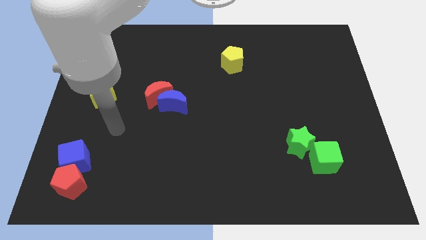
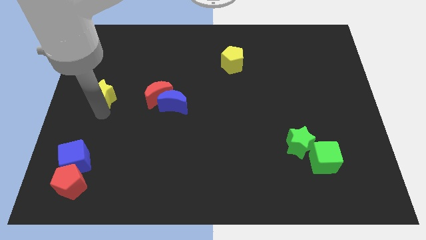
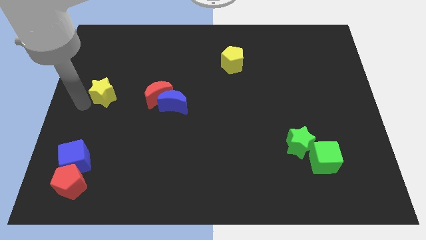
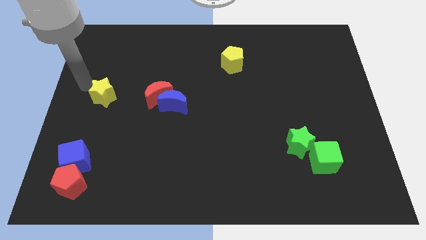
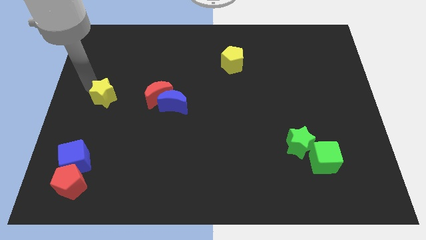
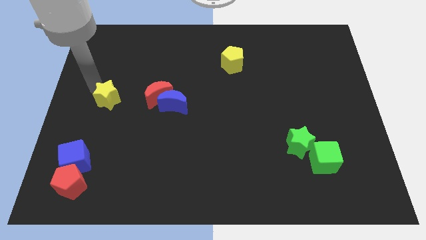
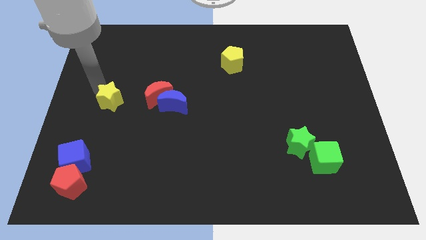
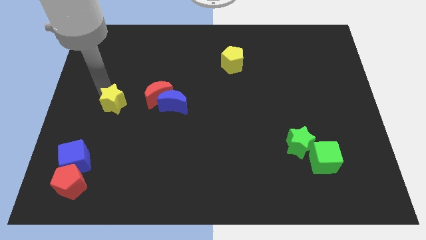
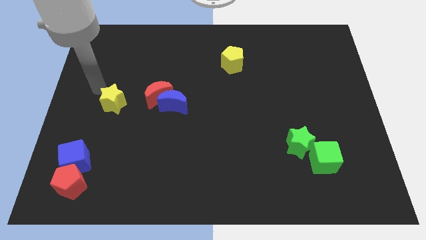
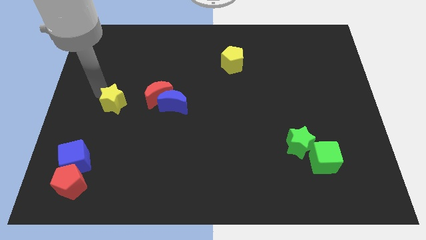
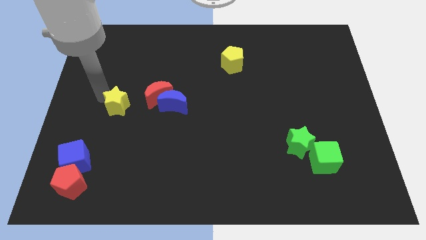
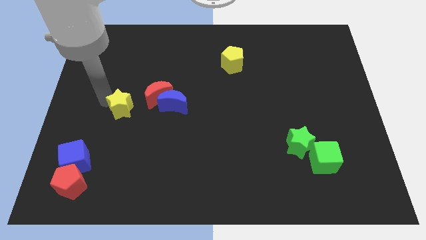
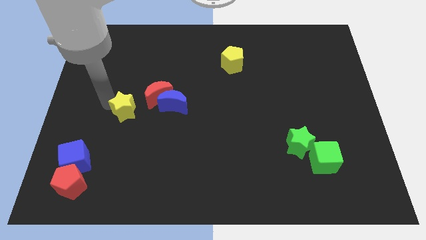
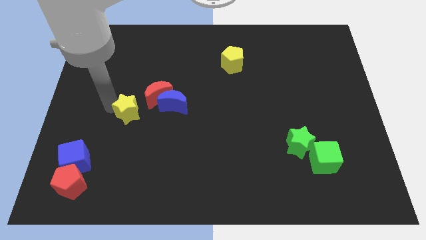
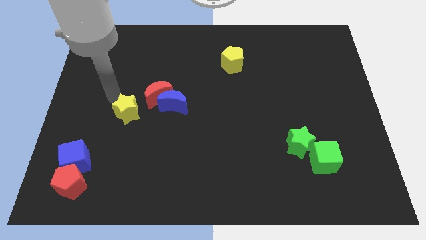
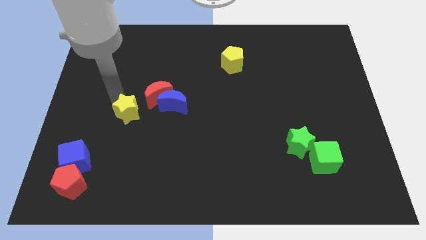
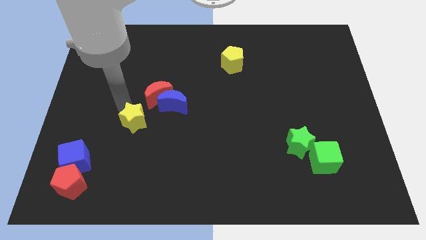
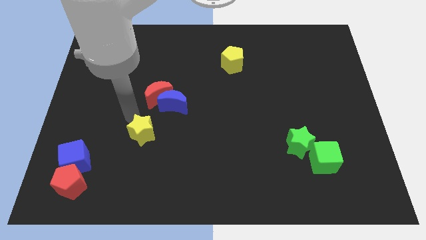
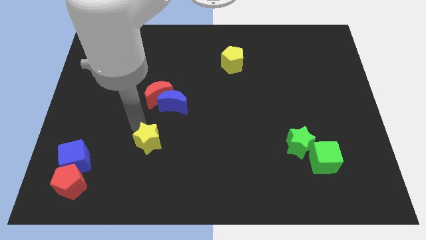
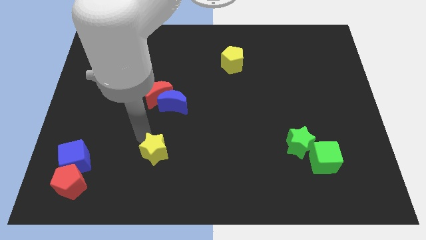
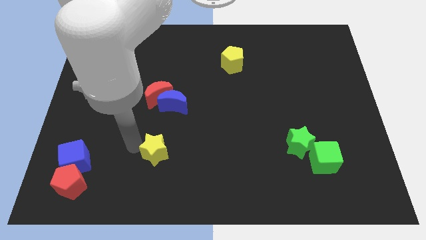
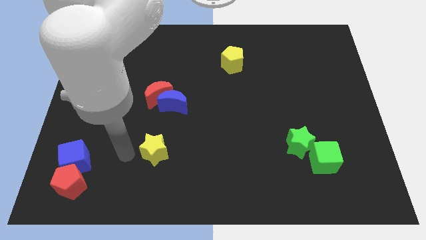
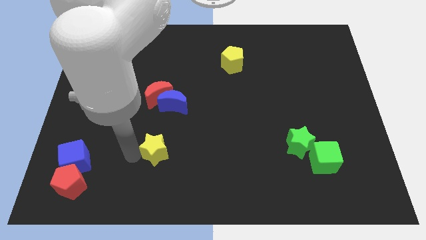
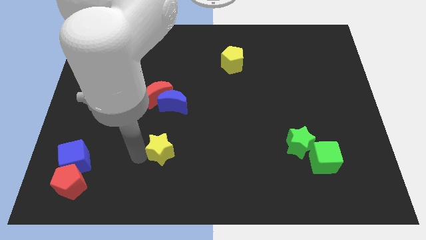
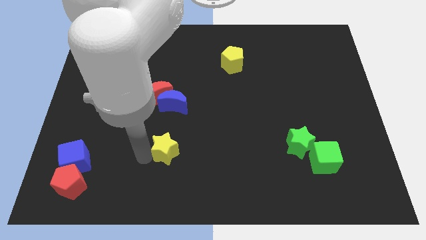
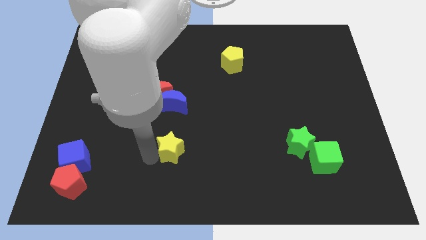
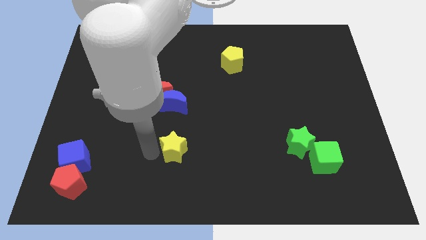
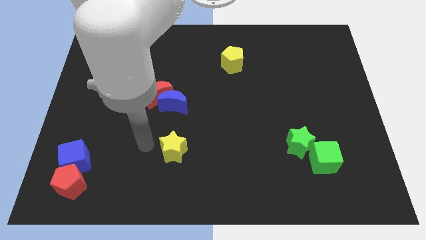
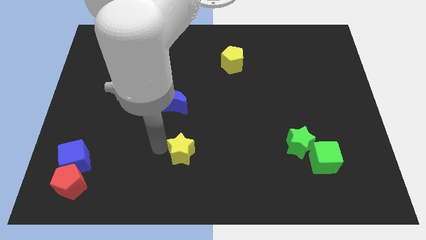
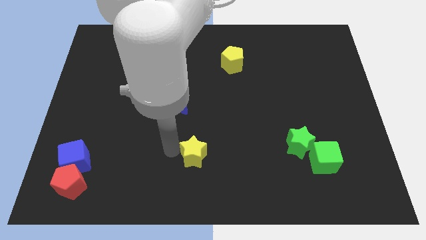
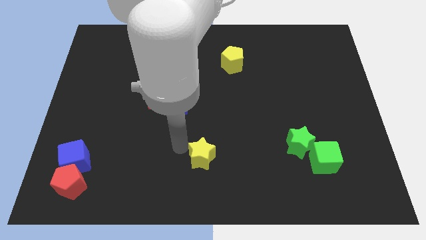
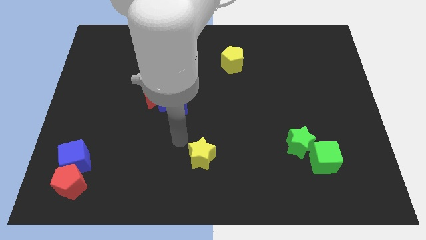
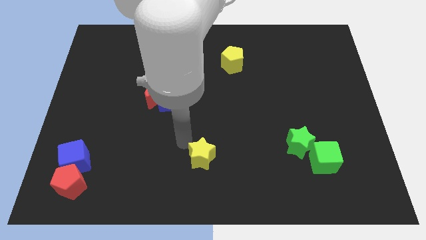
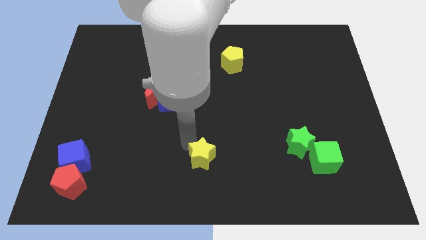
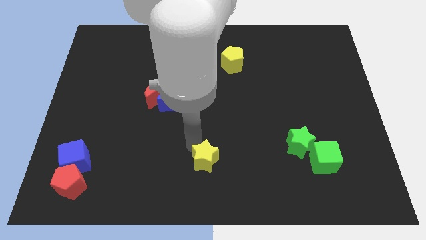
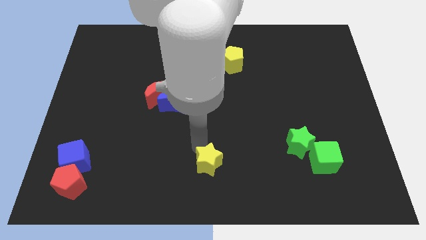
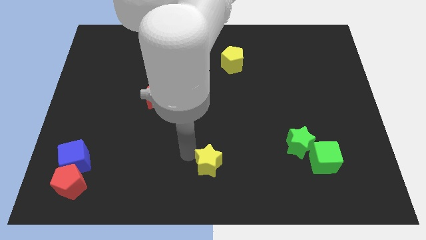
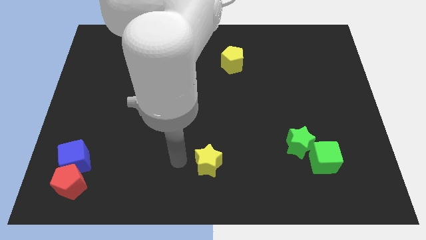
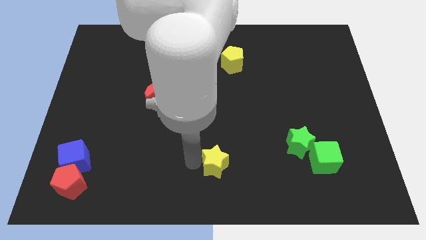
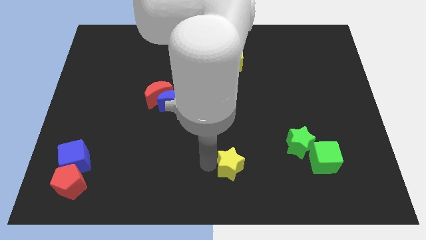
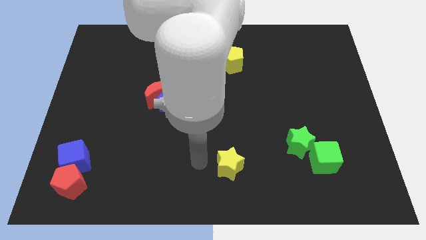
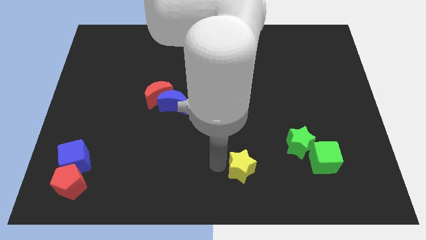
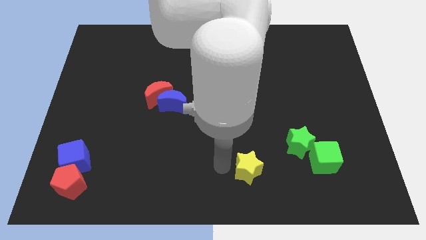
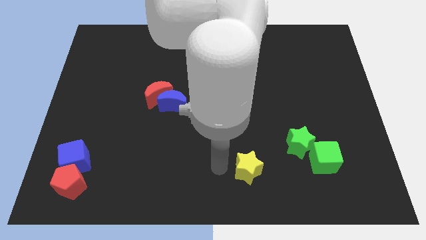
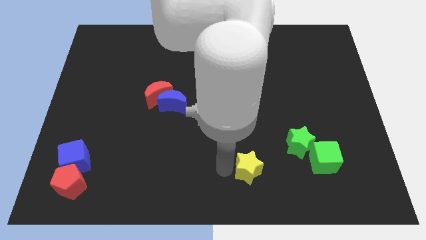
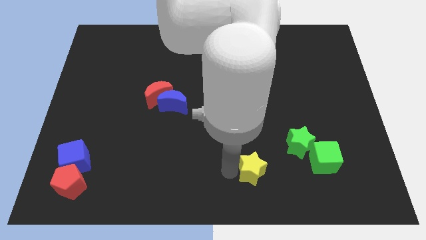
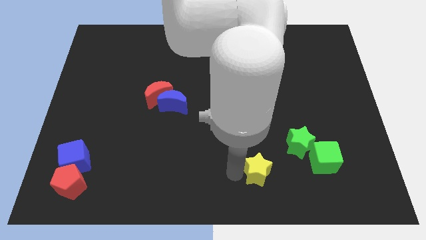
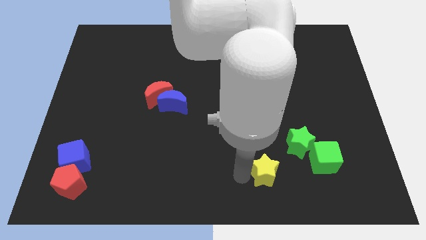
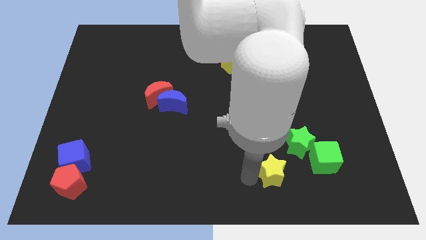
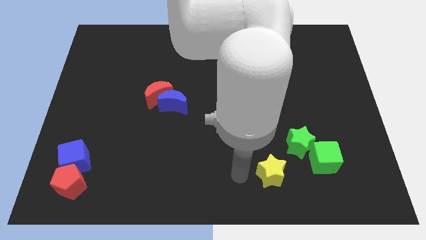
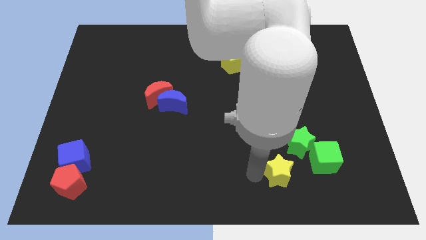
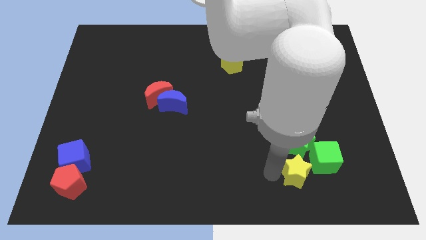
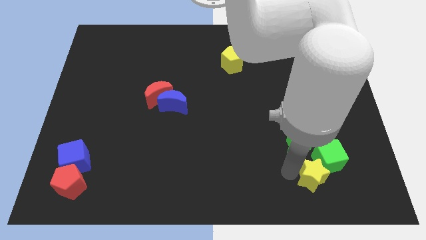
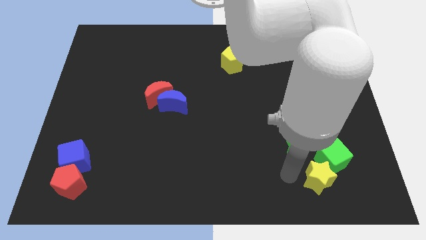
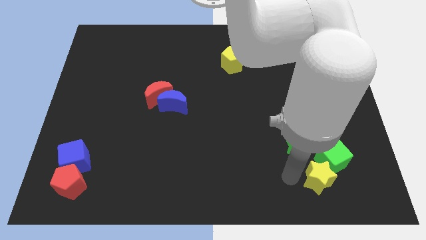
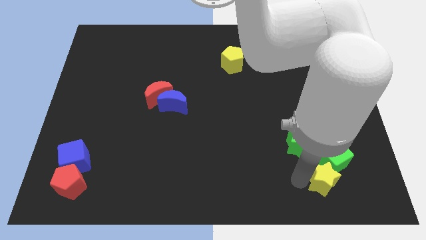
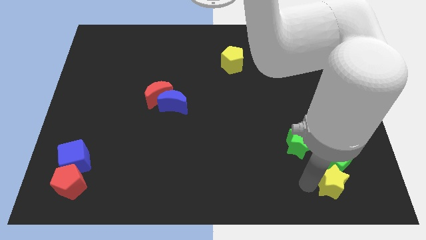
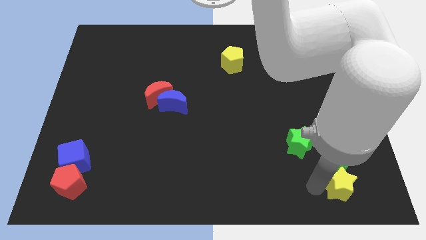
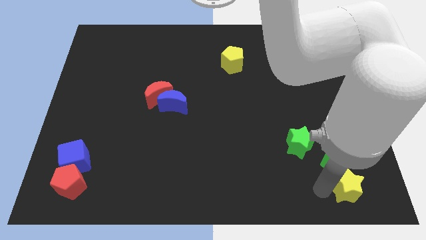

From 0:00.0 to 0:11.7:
push the yellow star to the bottom right

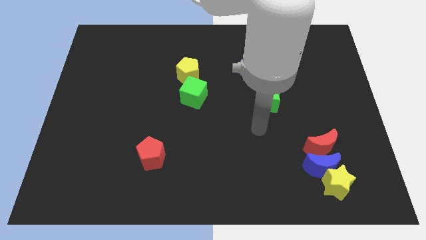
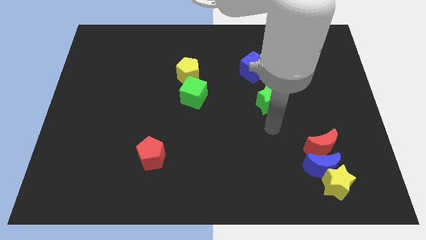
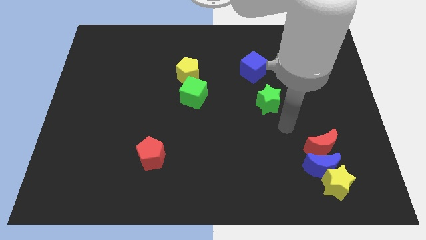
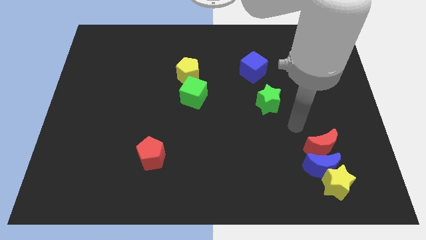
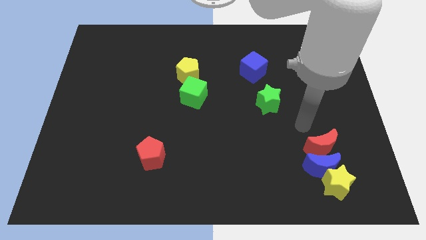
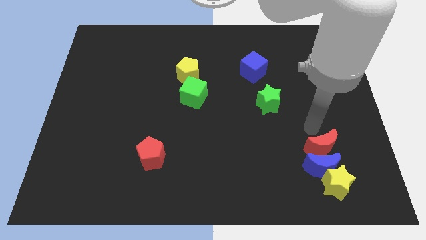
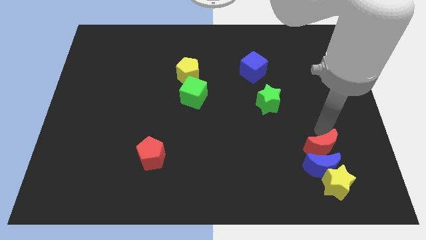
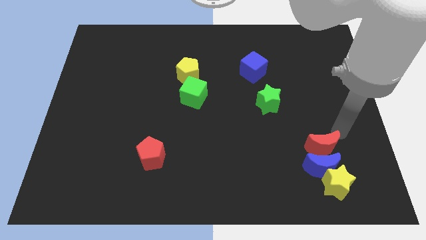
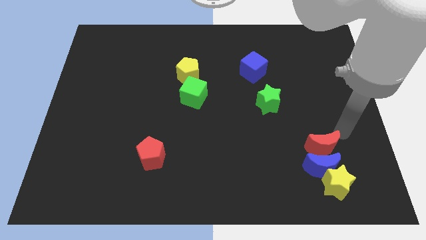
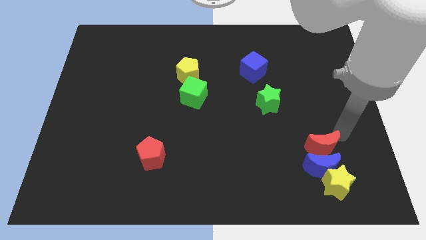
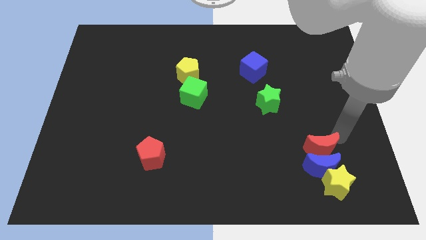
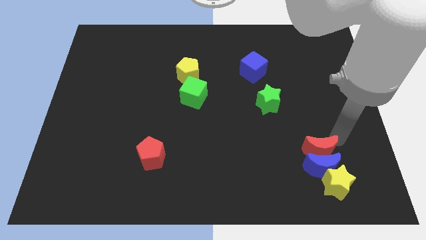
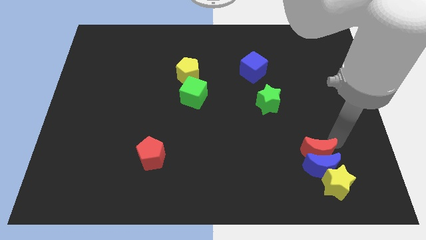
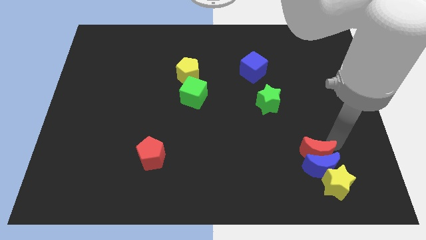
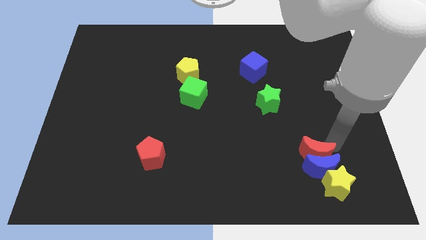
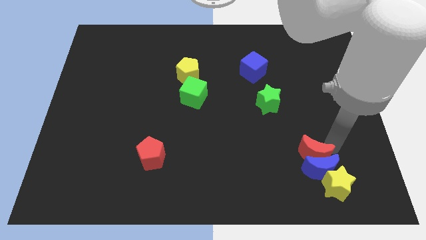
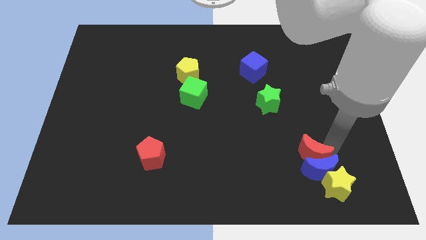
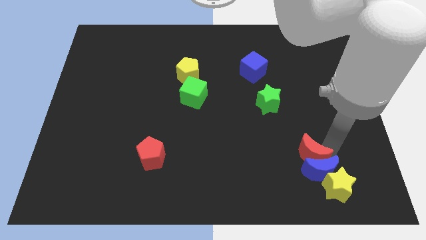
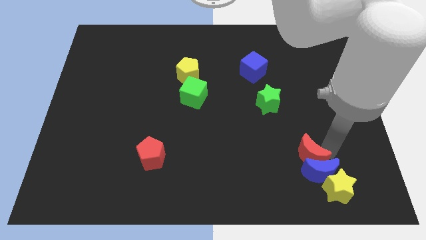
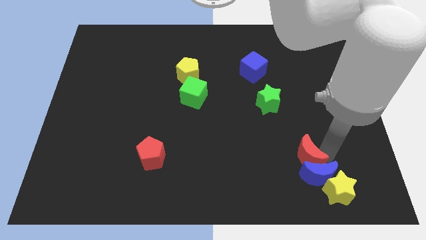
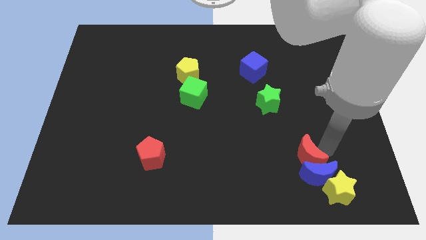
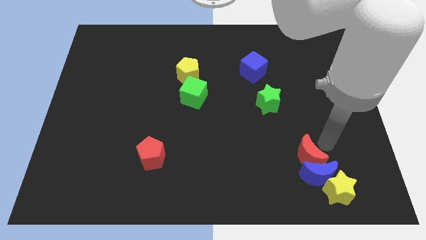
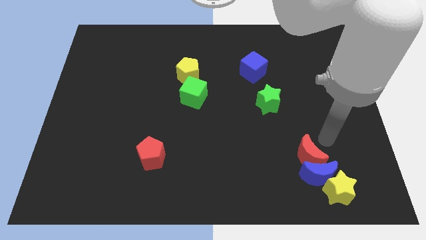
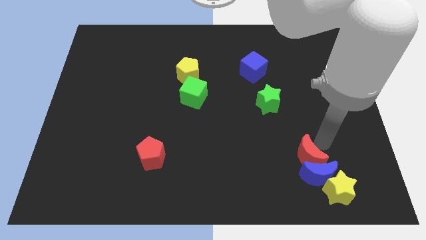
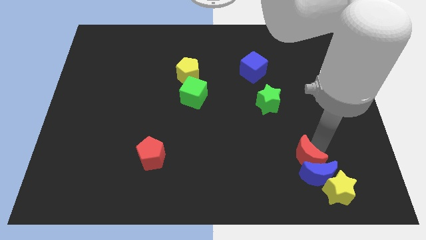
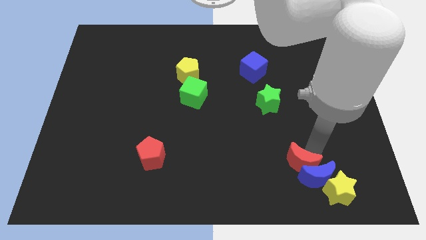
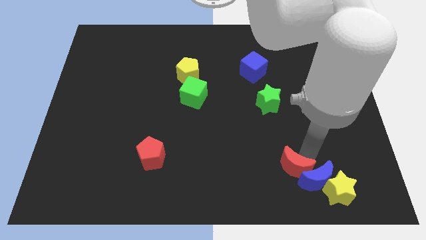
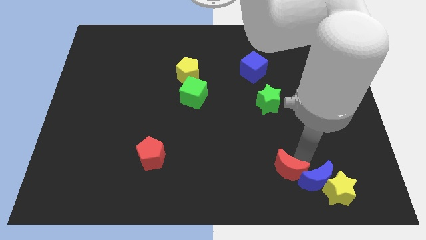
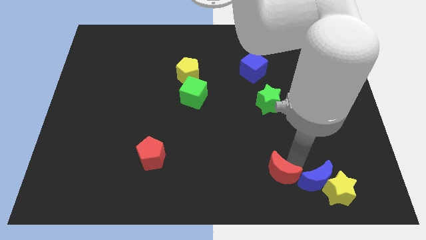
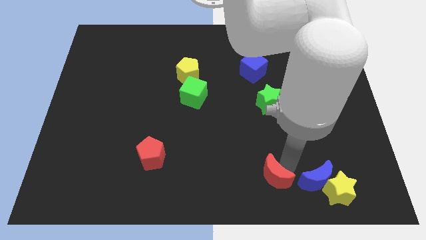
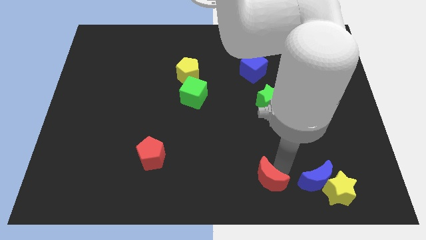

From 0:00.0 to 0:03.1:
slide the red moon to the bottom
